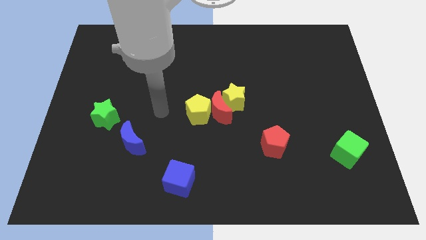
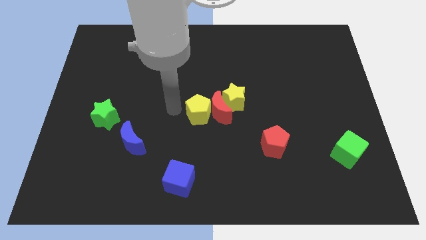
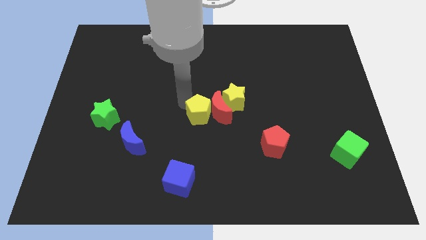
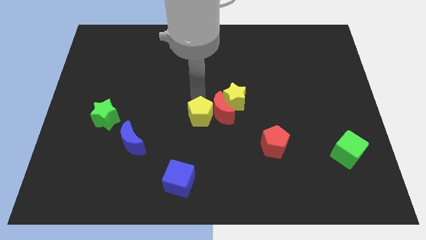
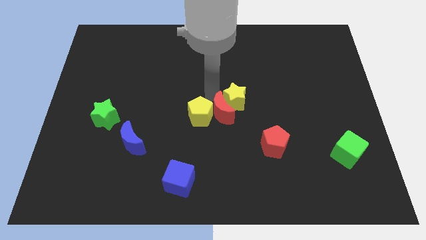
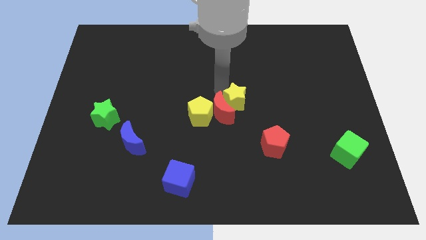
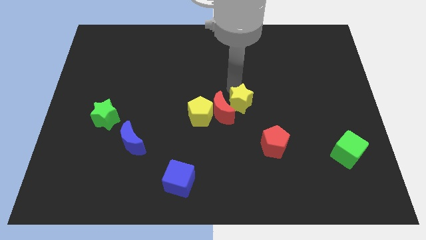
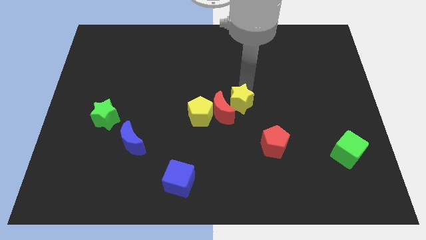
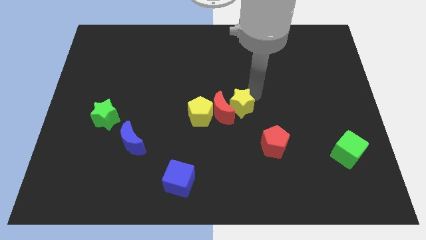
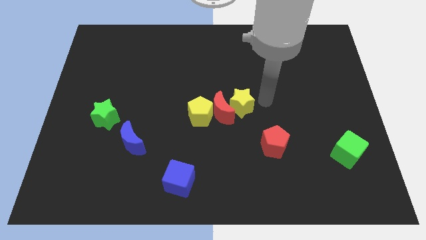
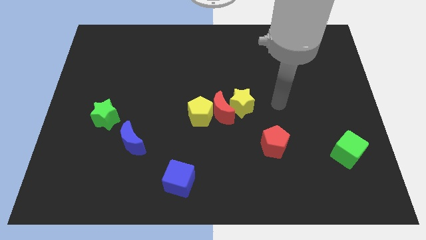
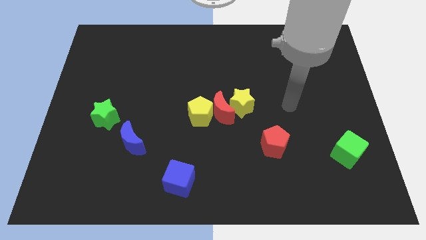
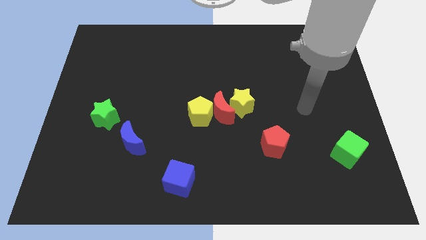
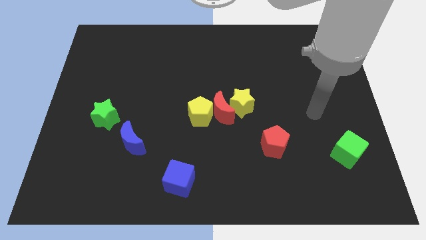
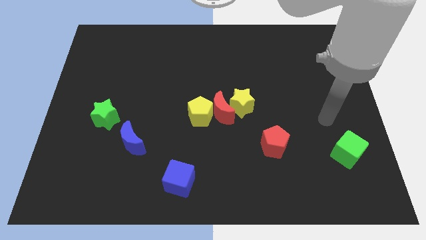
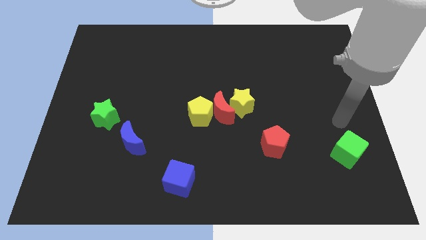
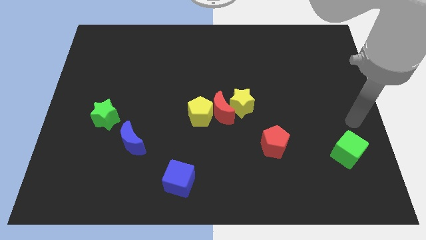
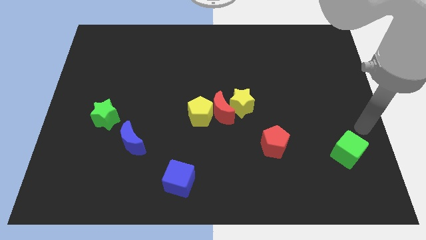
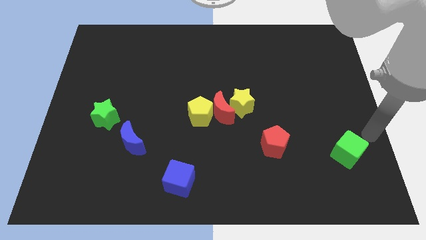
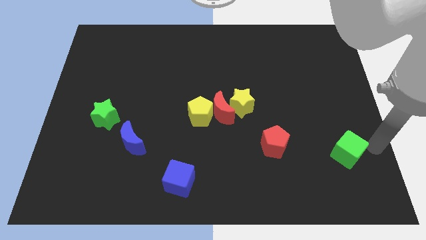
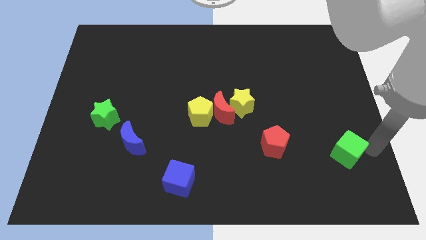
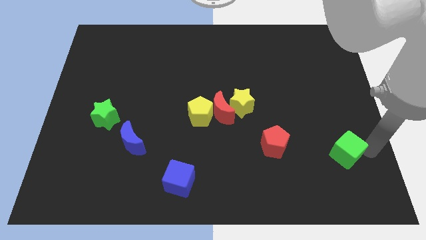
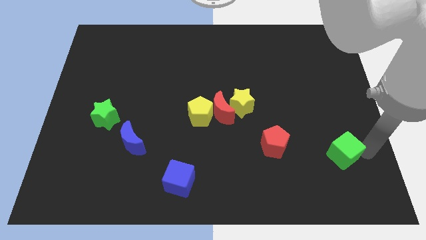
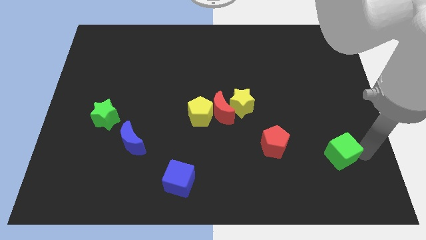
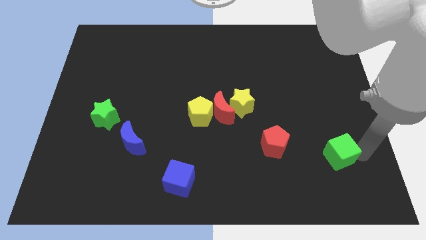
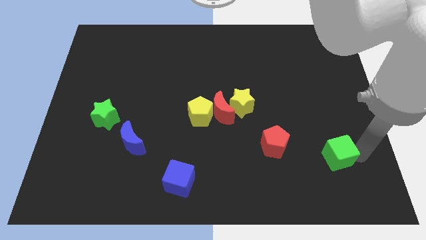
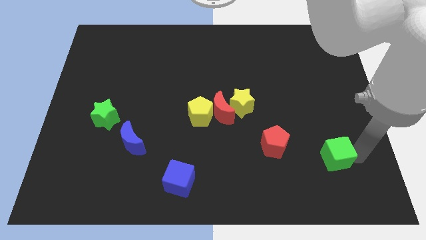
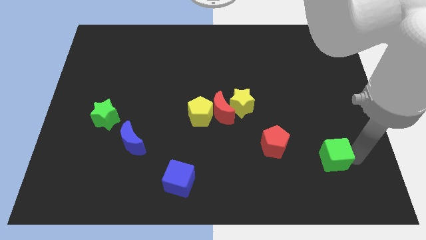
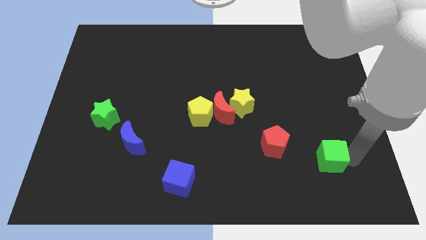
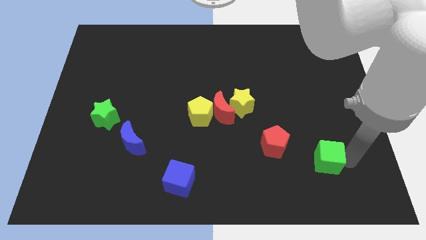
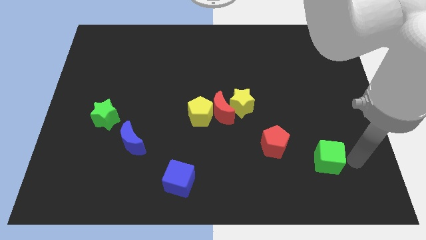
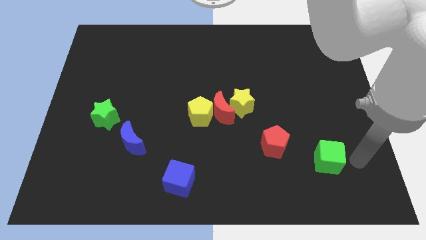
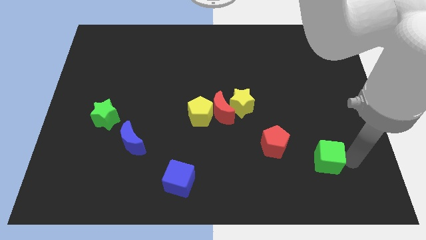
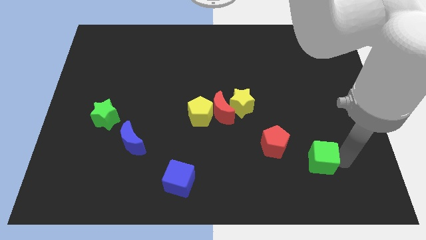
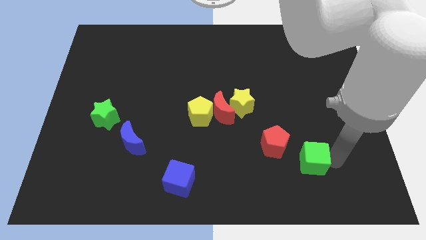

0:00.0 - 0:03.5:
push the green cube somewhat left

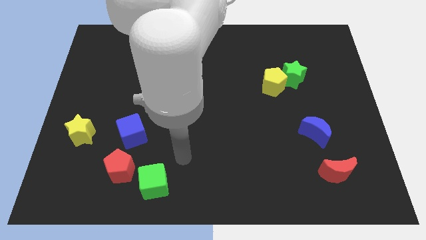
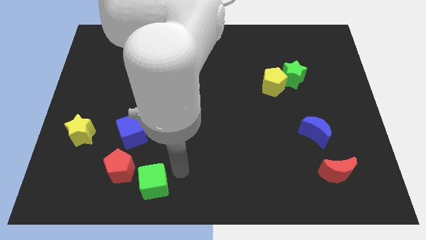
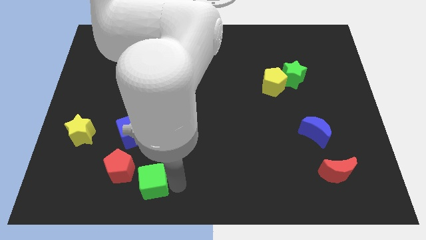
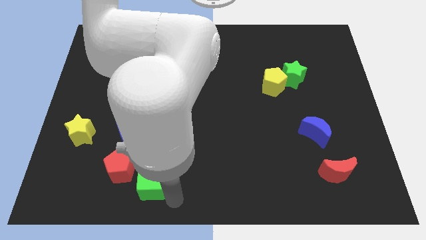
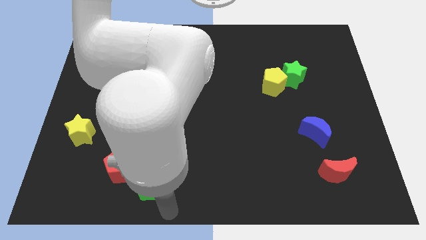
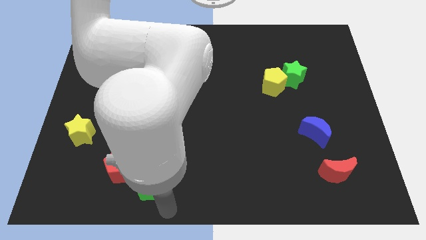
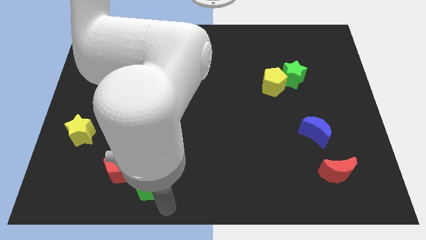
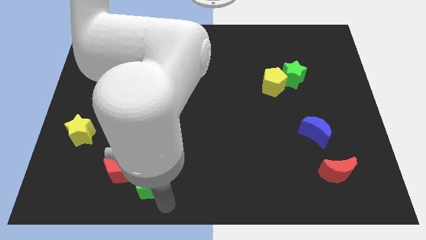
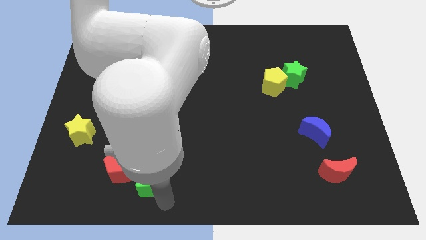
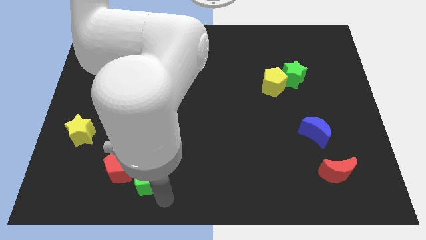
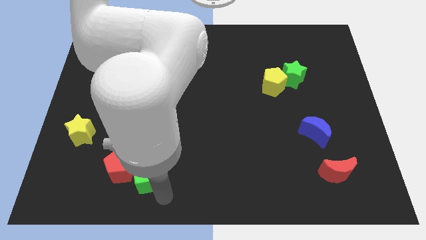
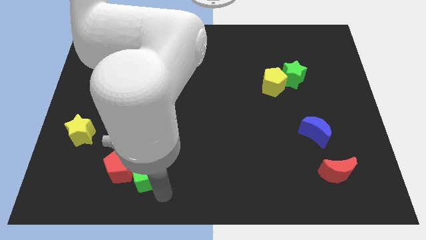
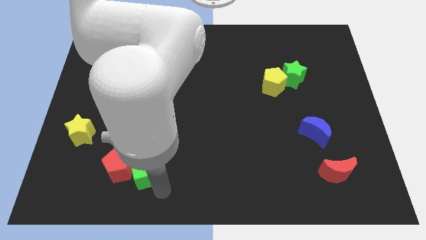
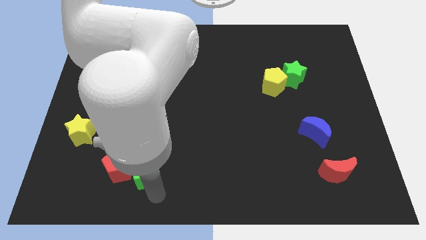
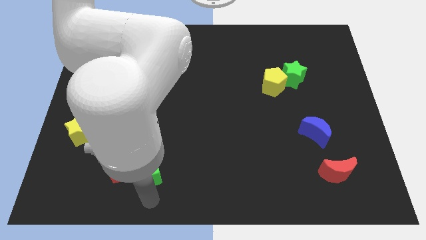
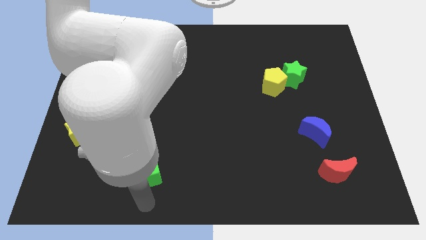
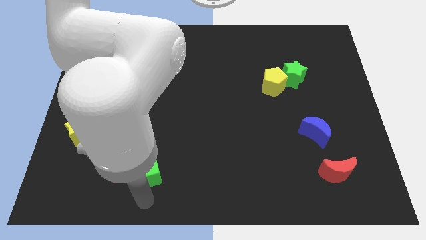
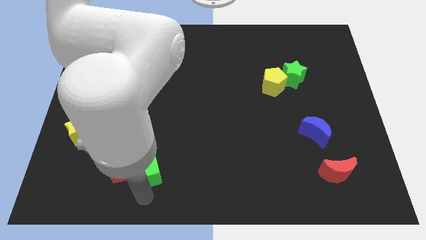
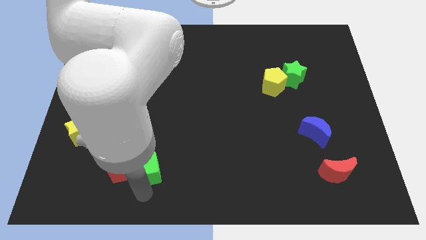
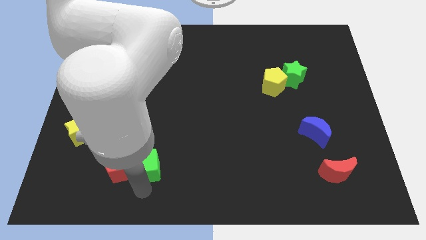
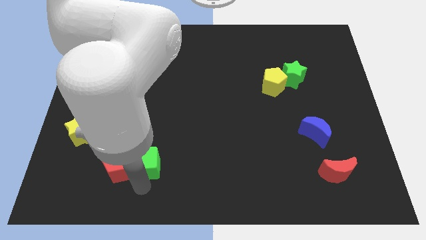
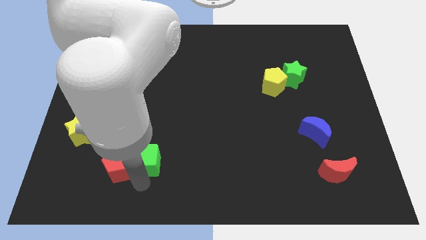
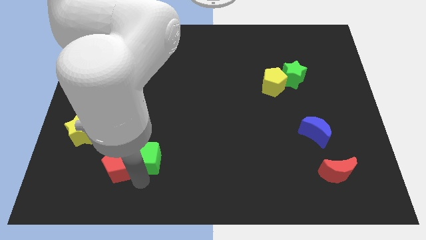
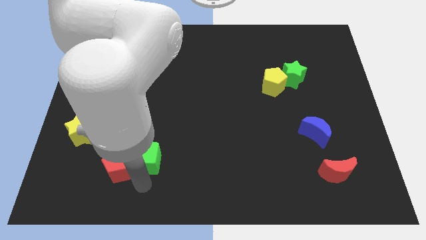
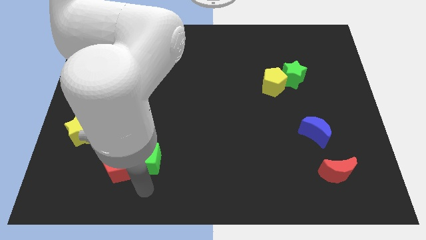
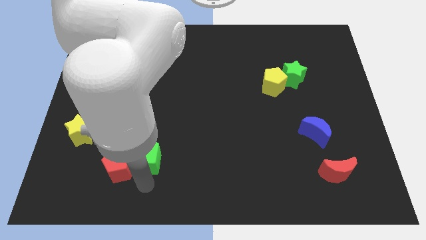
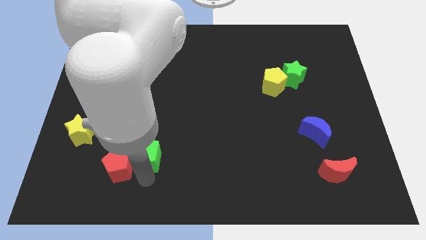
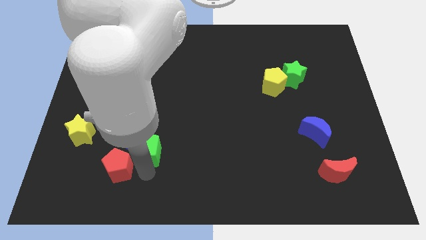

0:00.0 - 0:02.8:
slightly push the green cube up

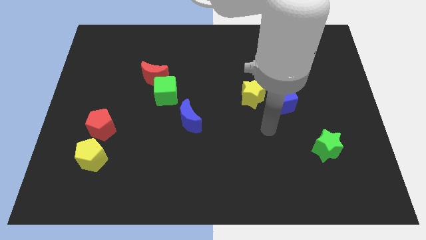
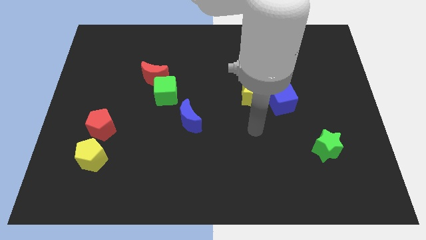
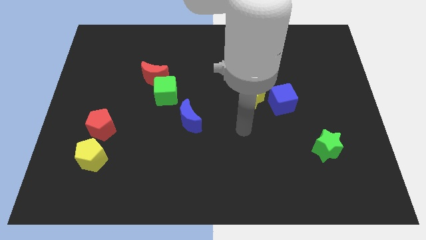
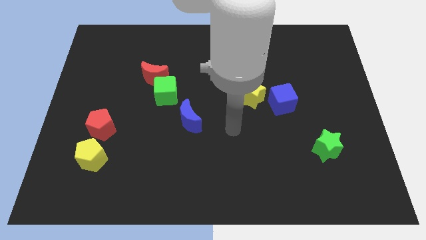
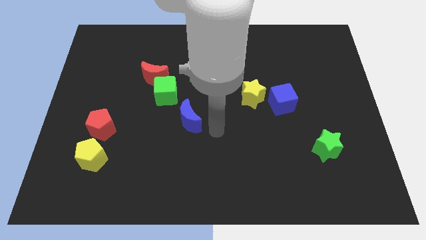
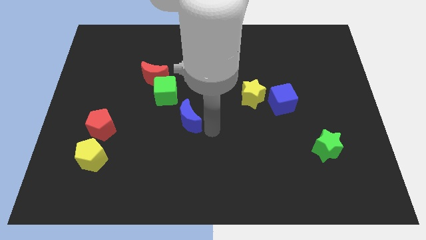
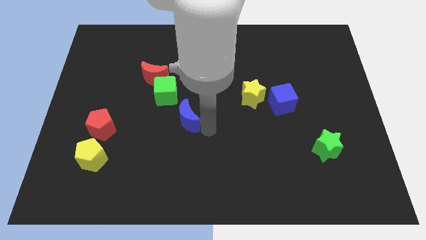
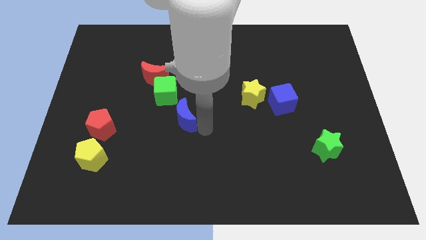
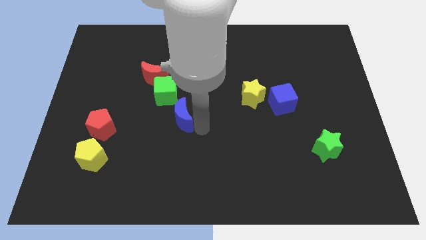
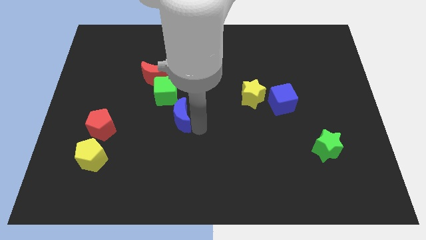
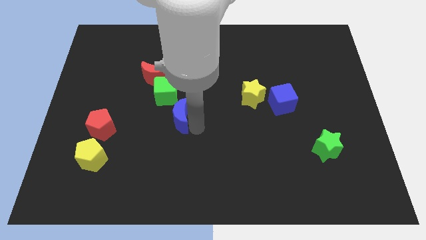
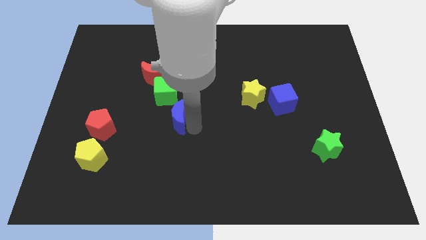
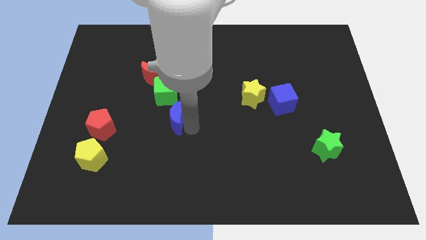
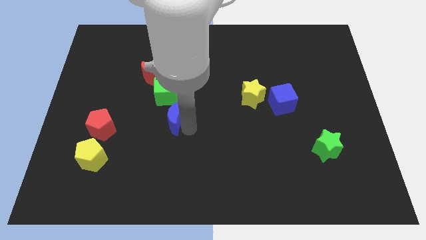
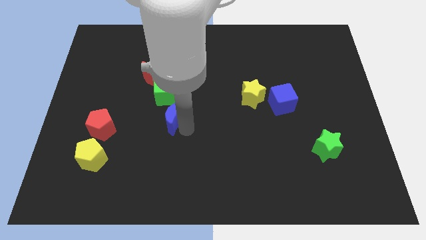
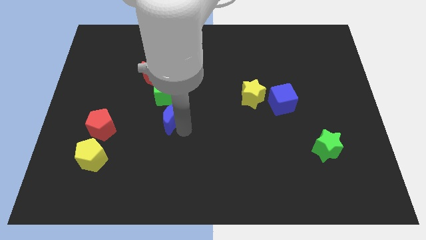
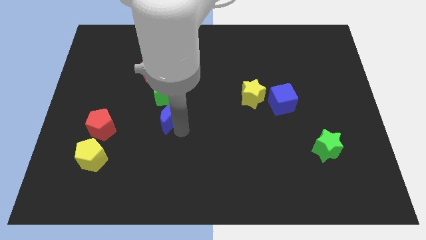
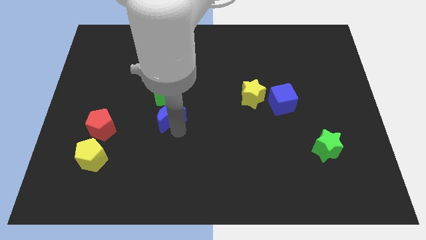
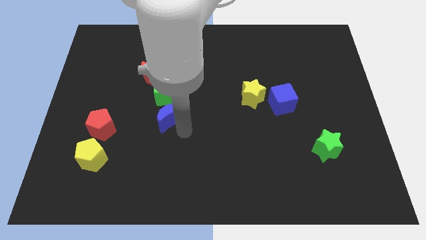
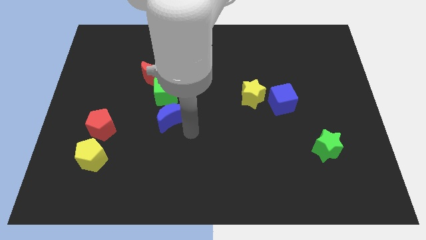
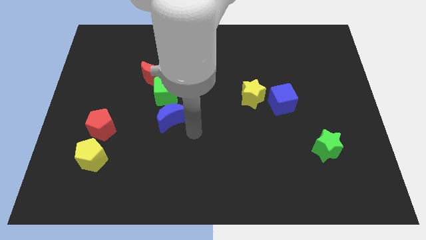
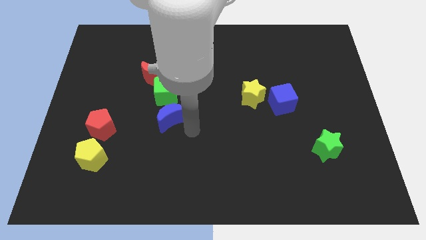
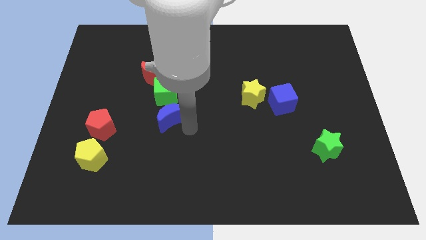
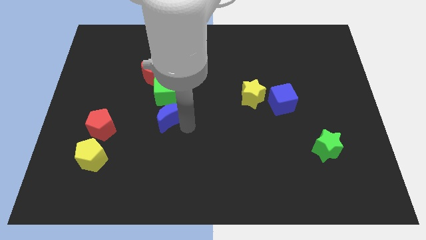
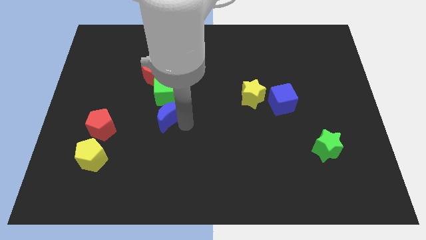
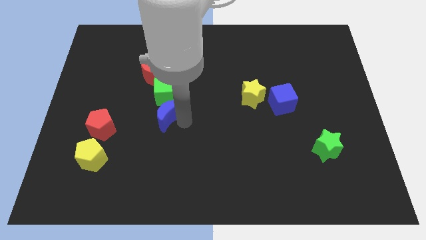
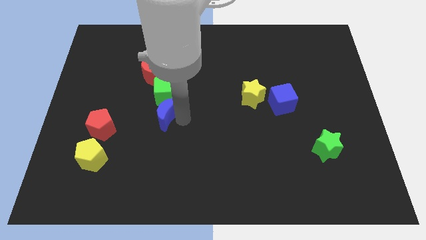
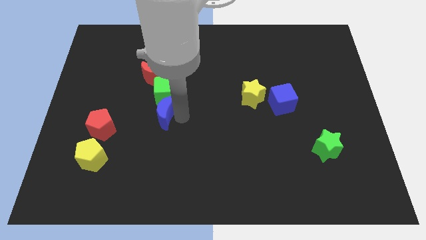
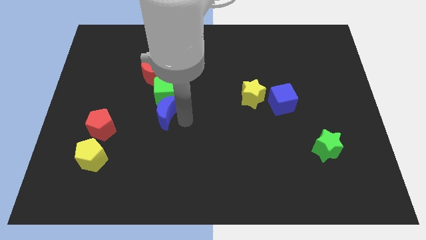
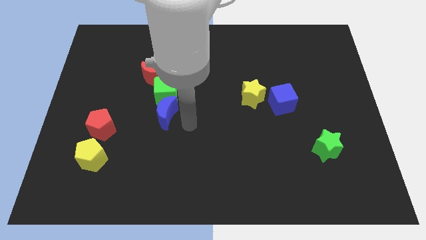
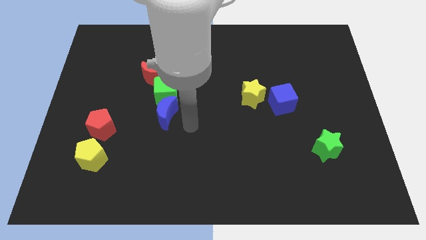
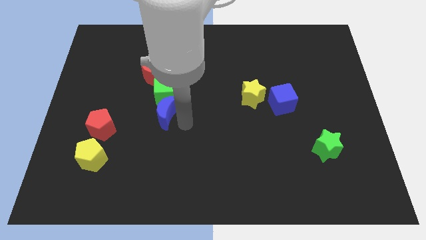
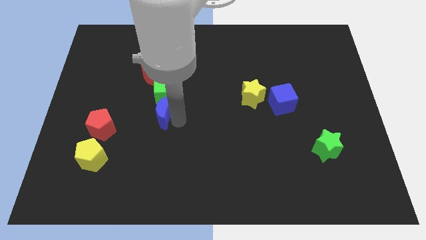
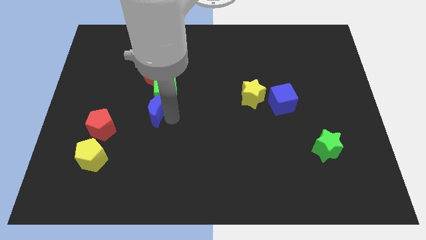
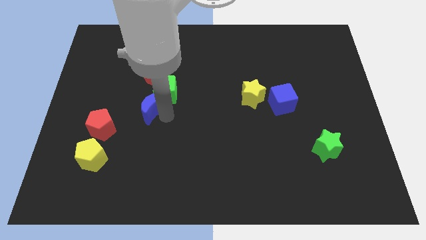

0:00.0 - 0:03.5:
slide the blue moon up and then to the left a little bit
